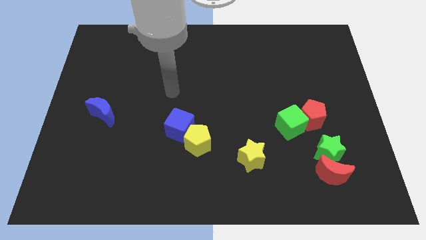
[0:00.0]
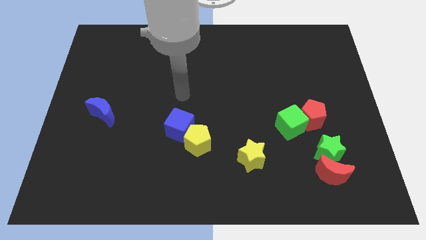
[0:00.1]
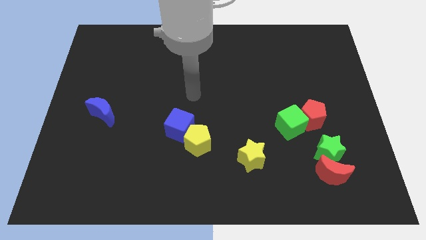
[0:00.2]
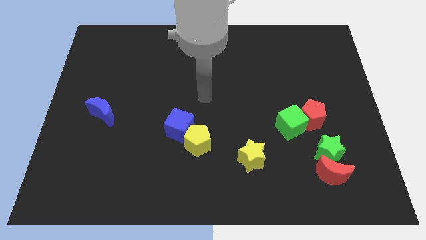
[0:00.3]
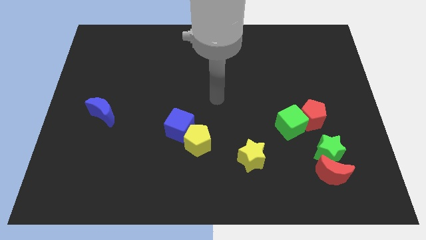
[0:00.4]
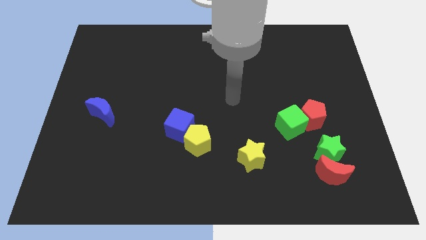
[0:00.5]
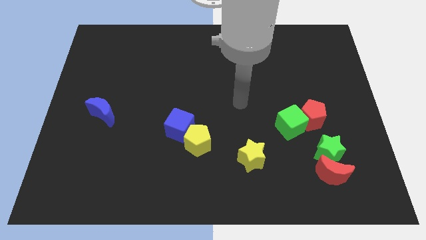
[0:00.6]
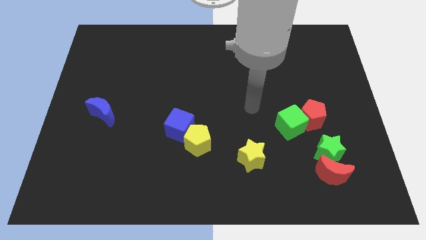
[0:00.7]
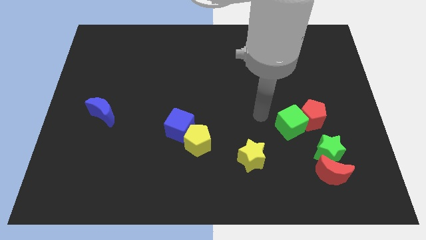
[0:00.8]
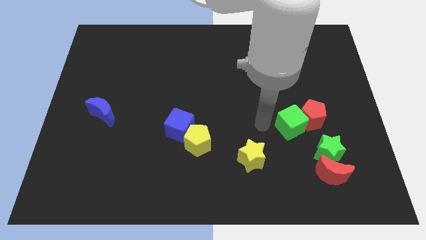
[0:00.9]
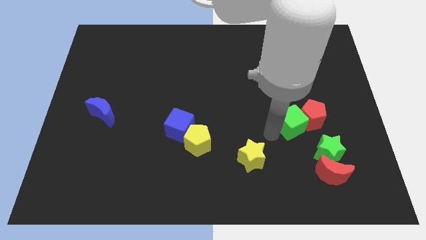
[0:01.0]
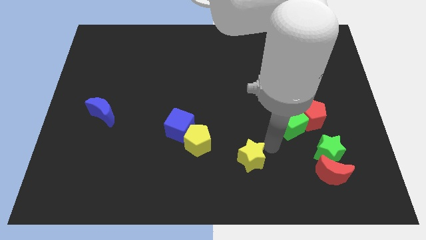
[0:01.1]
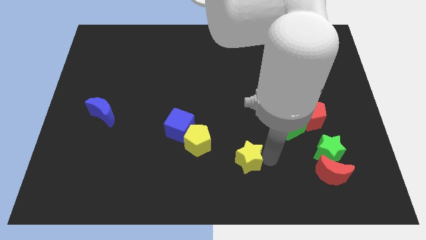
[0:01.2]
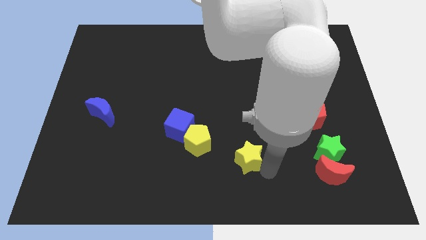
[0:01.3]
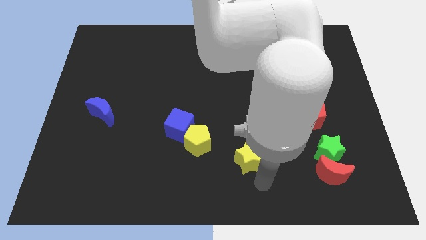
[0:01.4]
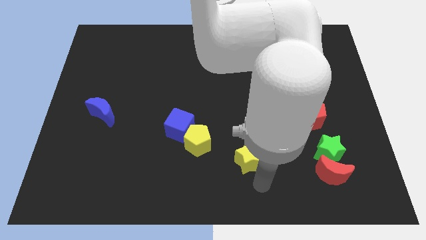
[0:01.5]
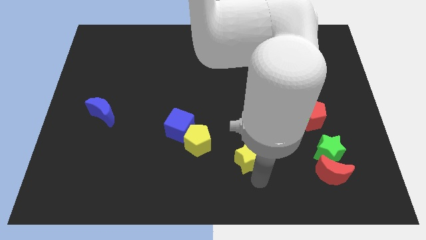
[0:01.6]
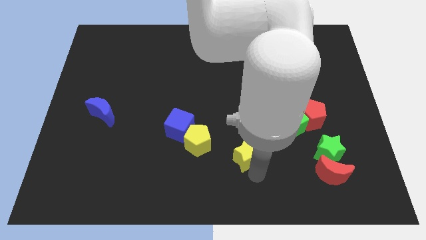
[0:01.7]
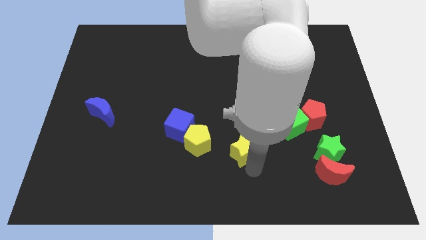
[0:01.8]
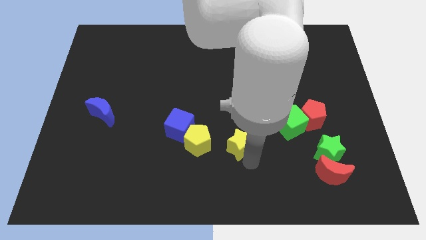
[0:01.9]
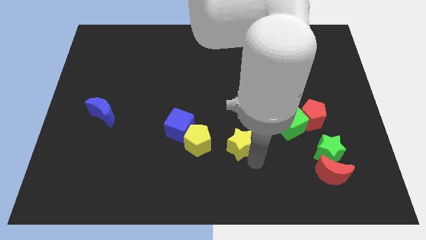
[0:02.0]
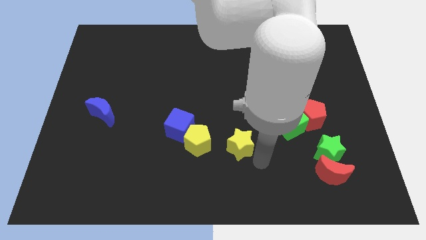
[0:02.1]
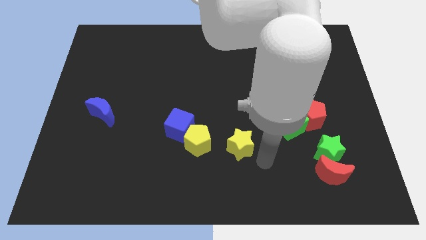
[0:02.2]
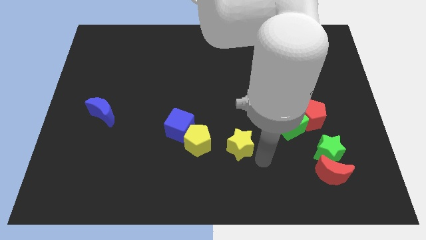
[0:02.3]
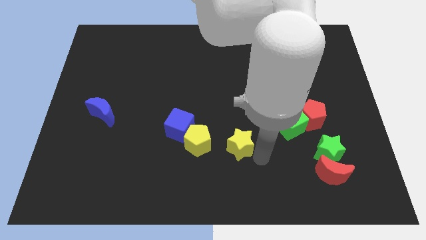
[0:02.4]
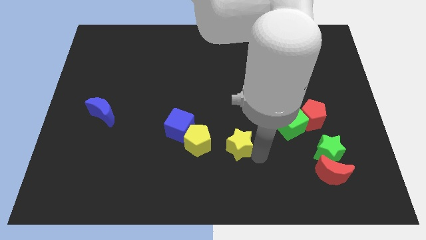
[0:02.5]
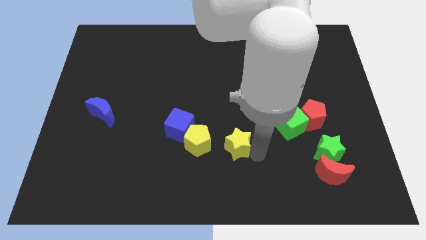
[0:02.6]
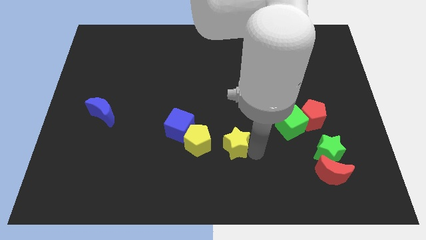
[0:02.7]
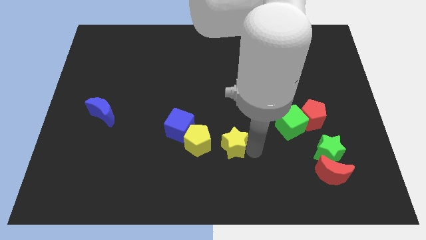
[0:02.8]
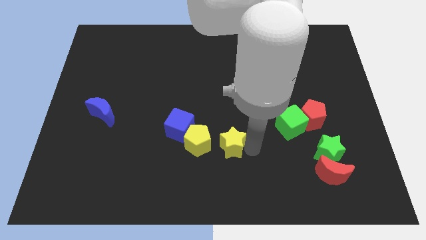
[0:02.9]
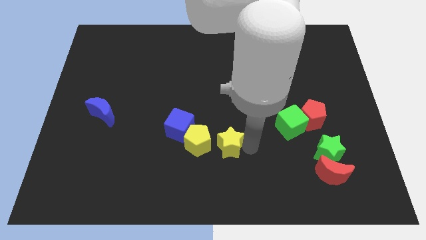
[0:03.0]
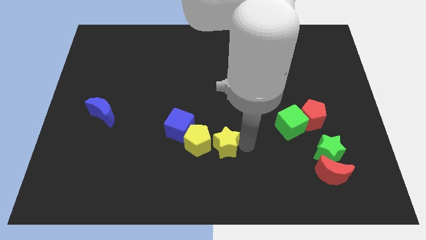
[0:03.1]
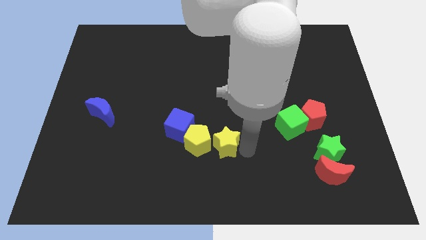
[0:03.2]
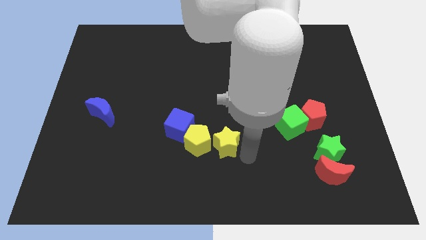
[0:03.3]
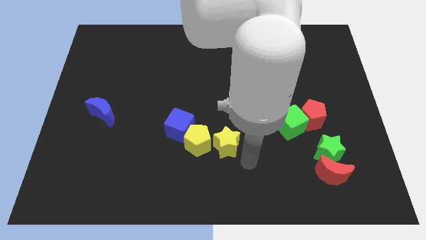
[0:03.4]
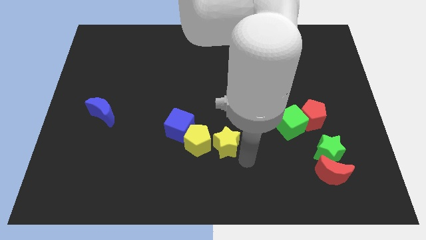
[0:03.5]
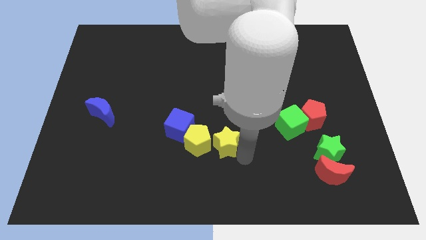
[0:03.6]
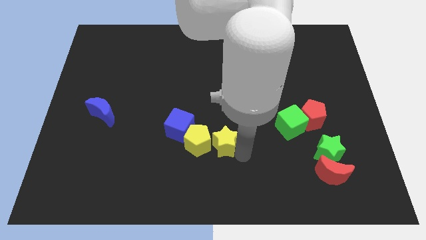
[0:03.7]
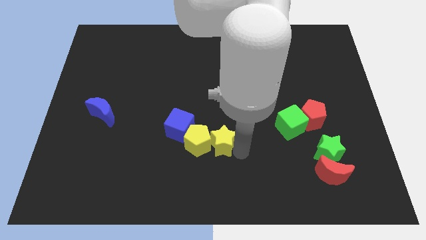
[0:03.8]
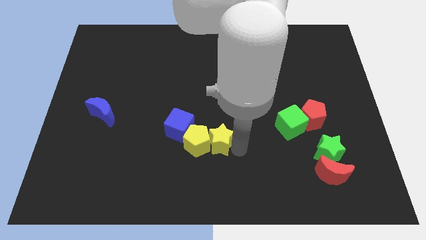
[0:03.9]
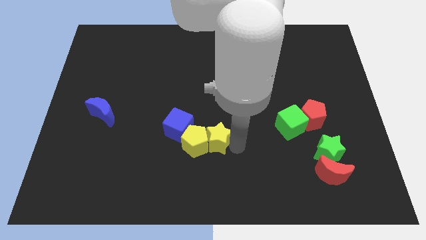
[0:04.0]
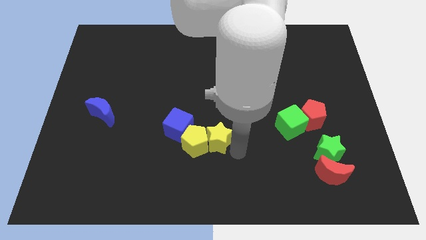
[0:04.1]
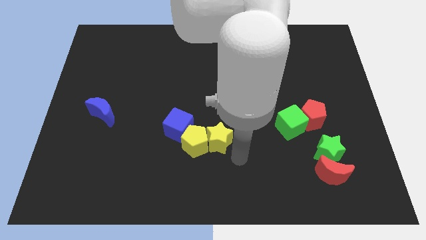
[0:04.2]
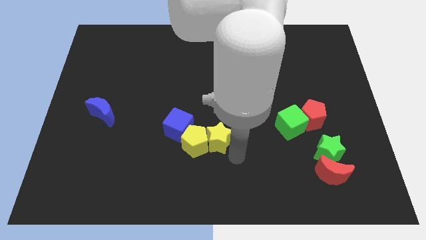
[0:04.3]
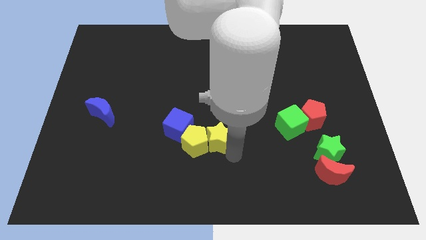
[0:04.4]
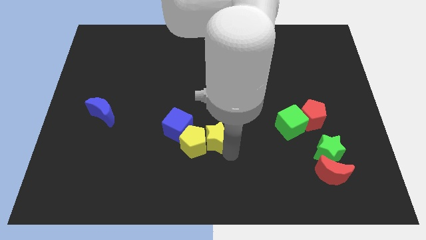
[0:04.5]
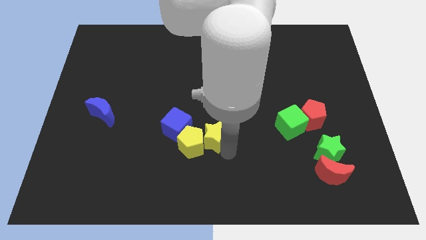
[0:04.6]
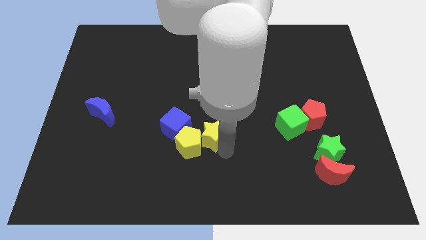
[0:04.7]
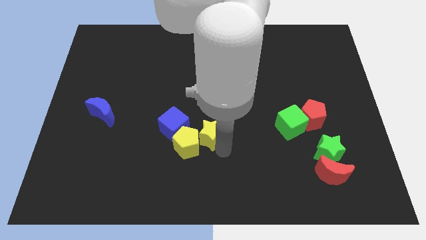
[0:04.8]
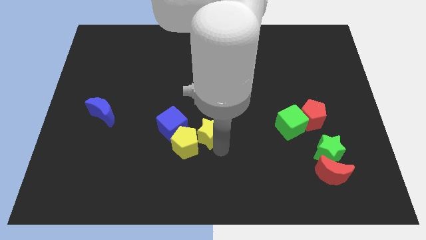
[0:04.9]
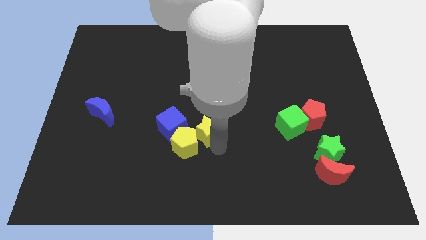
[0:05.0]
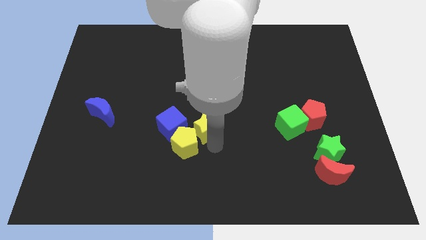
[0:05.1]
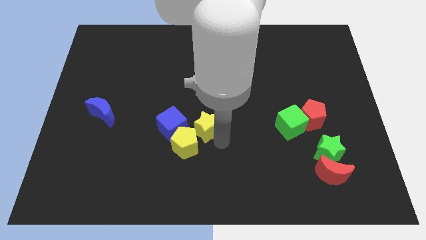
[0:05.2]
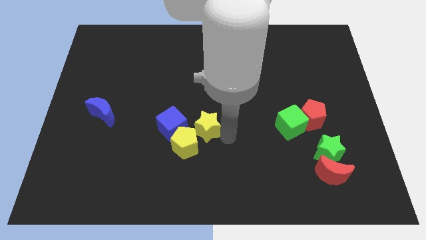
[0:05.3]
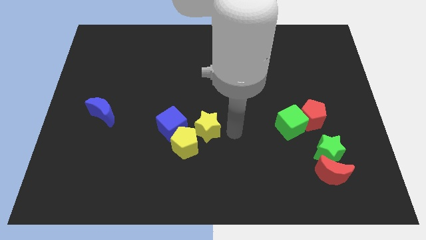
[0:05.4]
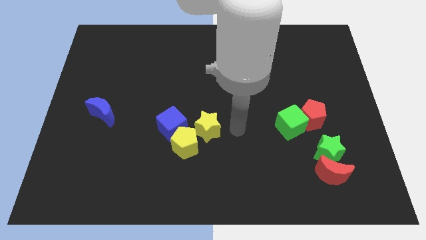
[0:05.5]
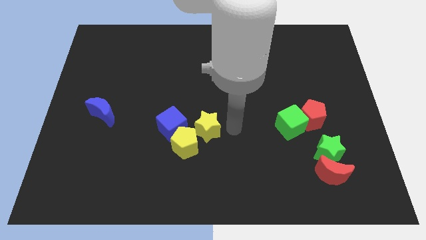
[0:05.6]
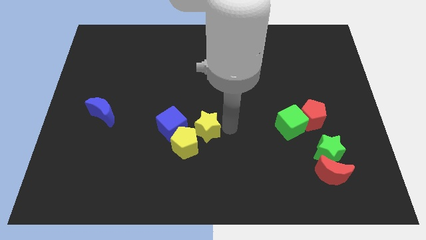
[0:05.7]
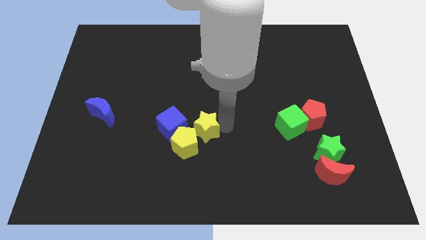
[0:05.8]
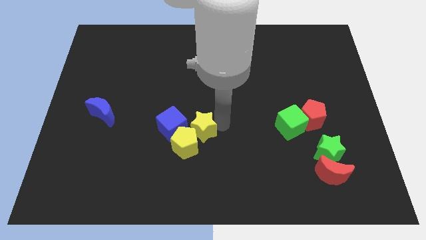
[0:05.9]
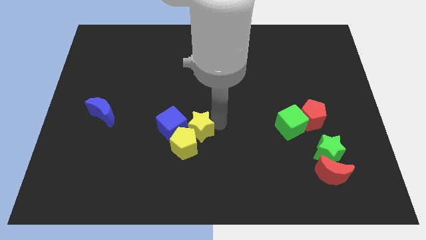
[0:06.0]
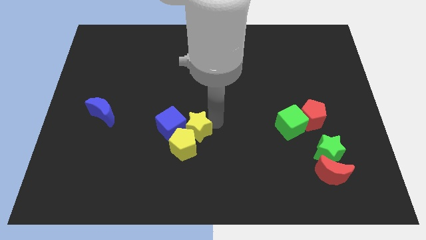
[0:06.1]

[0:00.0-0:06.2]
move the yellow star to the blue cube

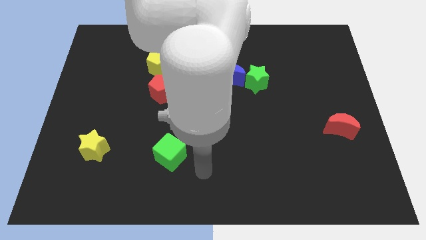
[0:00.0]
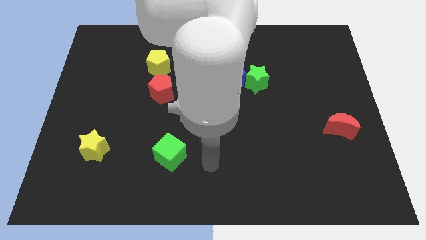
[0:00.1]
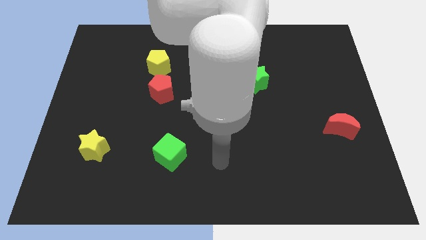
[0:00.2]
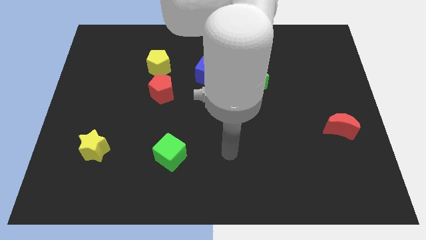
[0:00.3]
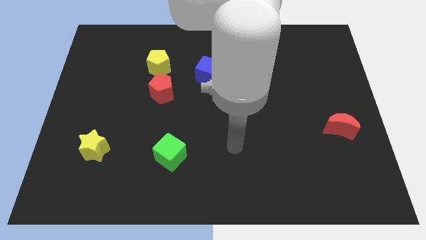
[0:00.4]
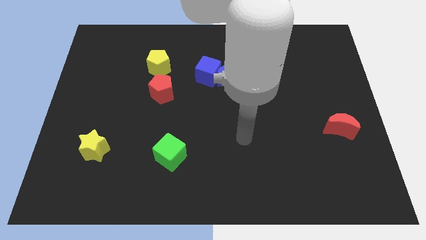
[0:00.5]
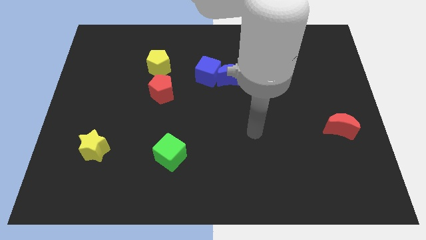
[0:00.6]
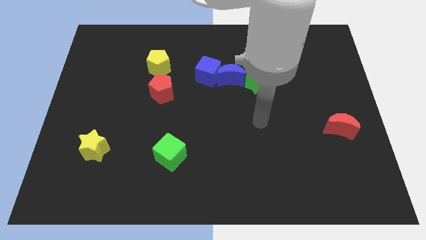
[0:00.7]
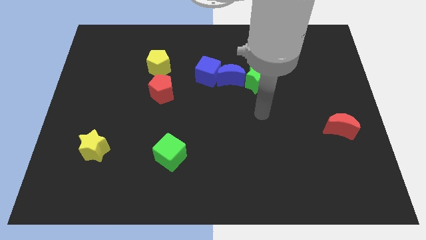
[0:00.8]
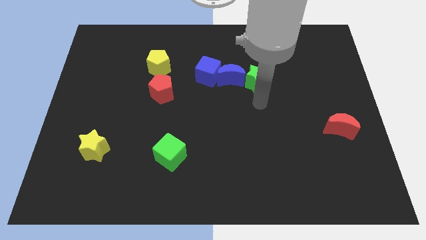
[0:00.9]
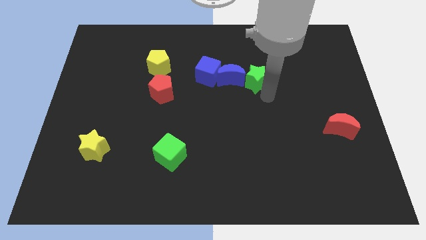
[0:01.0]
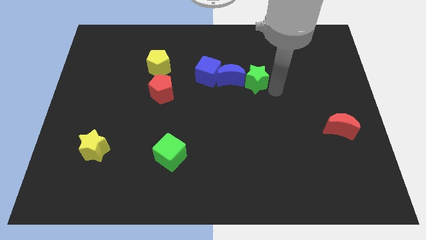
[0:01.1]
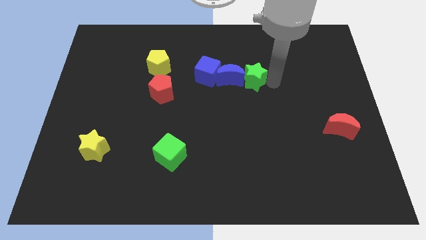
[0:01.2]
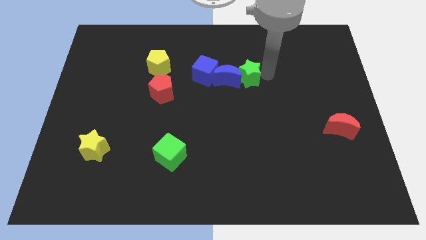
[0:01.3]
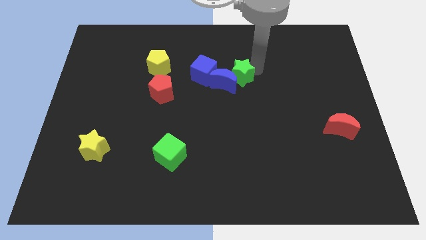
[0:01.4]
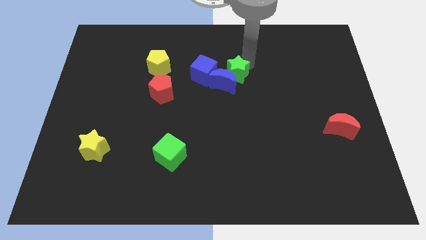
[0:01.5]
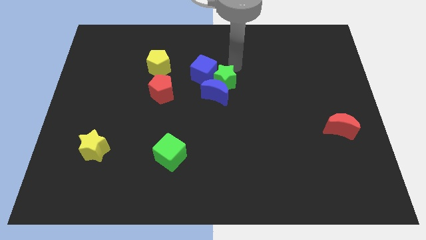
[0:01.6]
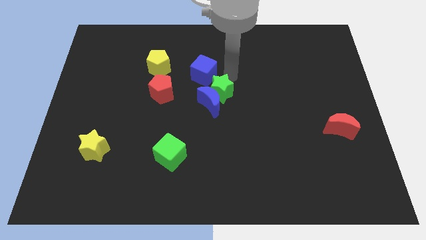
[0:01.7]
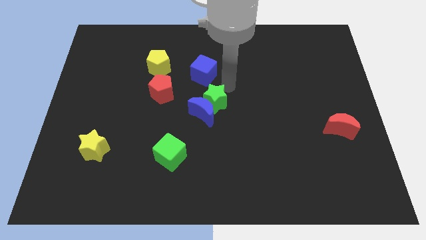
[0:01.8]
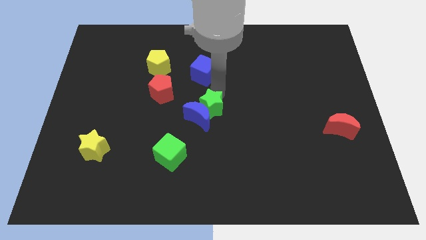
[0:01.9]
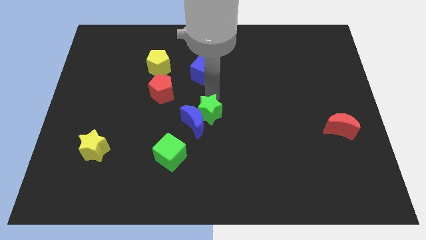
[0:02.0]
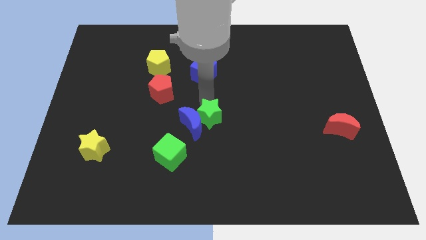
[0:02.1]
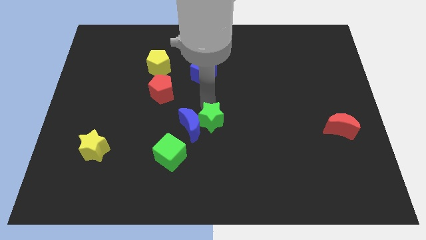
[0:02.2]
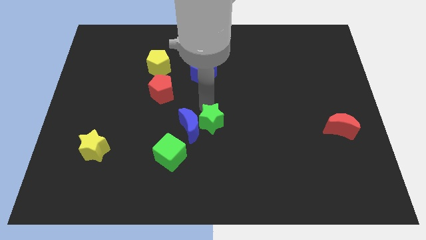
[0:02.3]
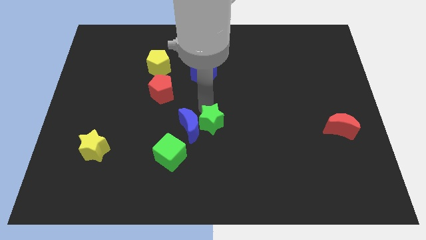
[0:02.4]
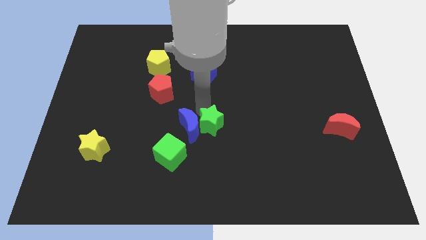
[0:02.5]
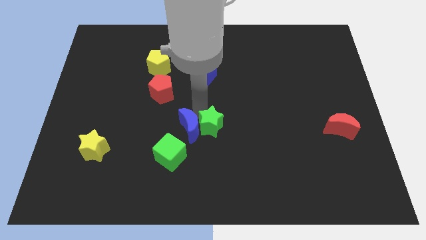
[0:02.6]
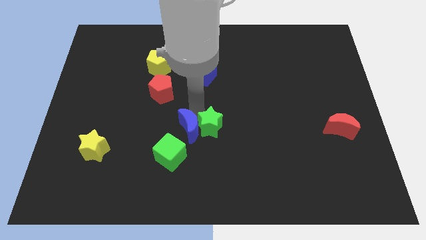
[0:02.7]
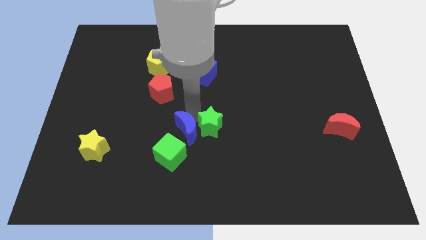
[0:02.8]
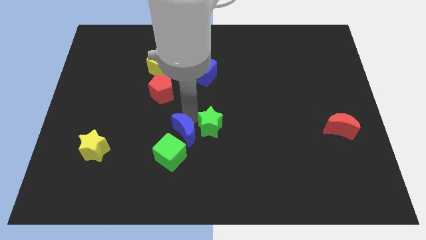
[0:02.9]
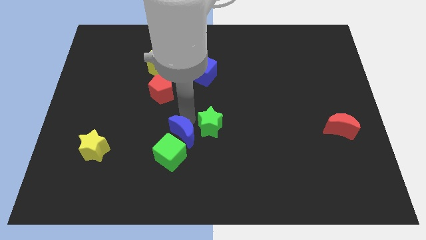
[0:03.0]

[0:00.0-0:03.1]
move the blue moon next to the green cube
